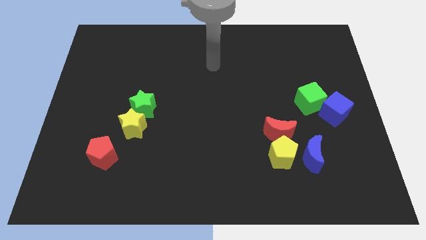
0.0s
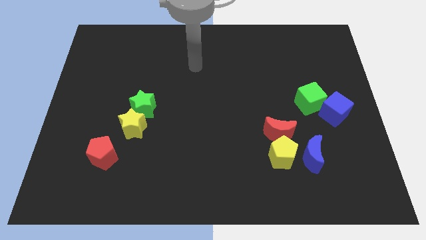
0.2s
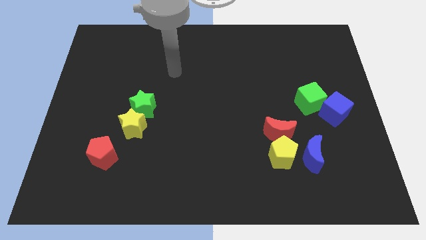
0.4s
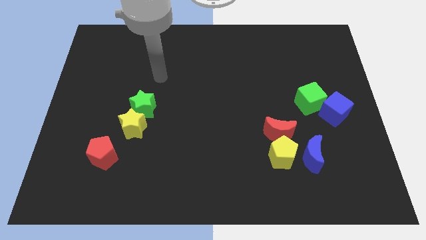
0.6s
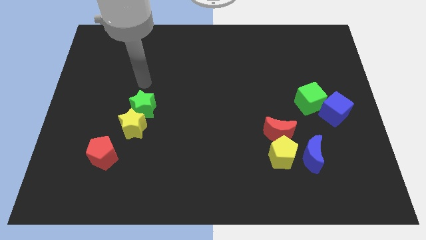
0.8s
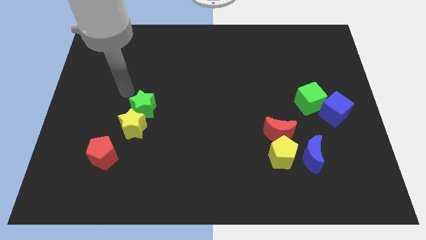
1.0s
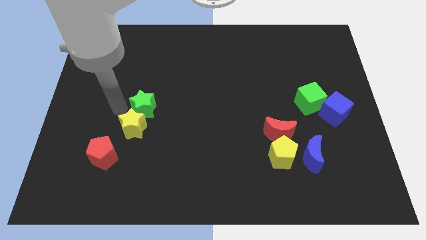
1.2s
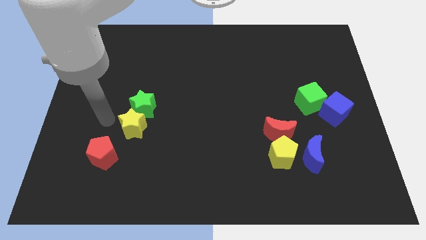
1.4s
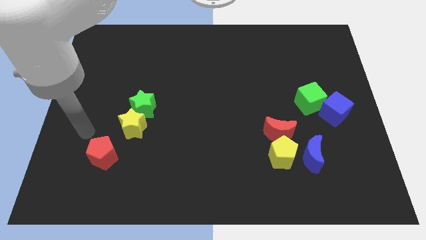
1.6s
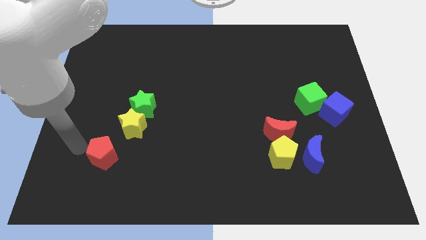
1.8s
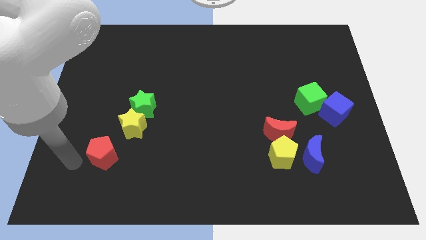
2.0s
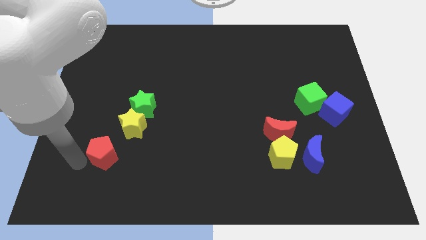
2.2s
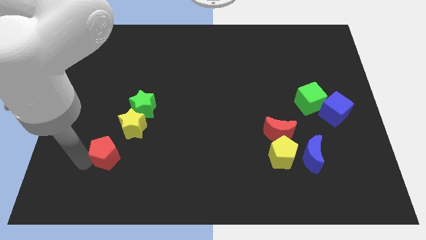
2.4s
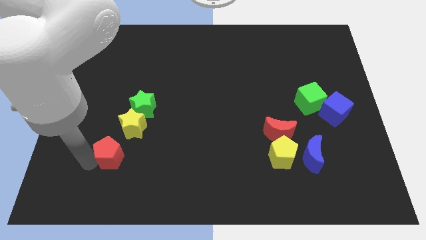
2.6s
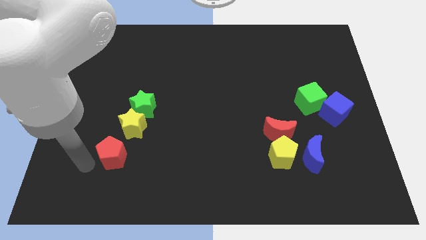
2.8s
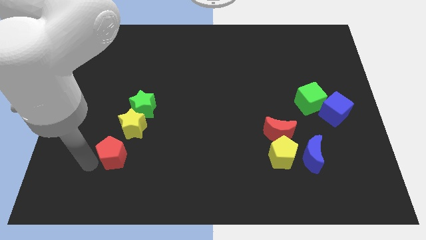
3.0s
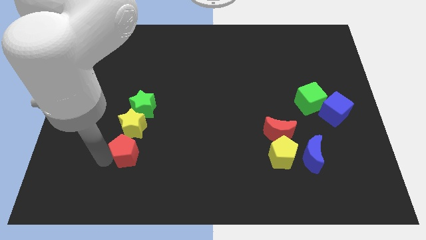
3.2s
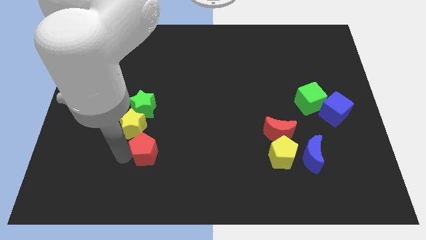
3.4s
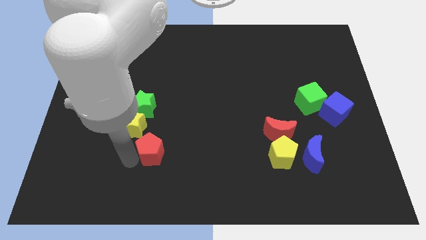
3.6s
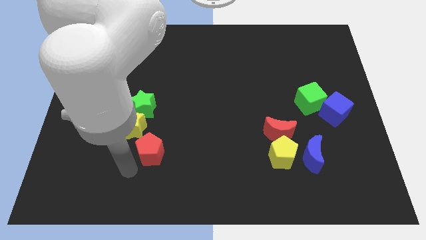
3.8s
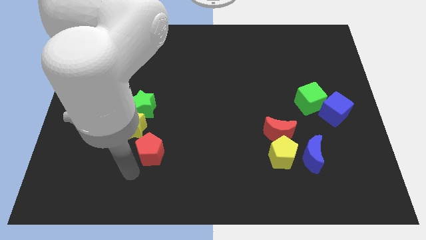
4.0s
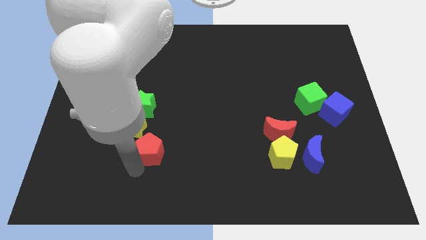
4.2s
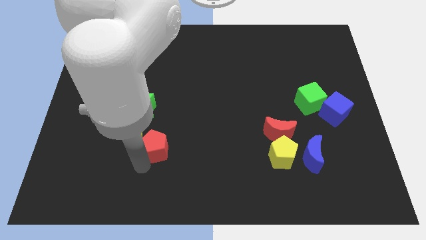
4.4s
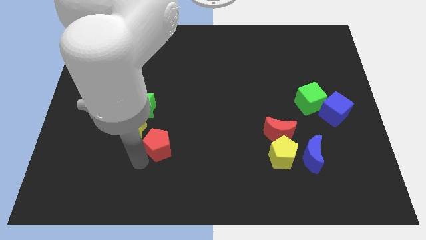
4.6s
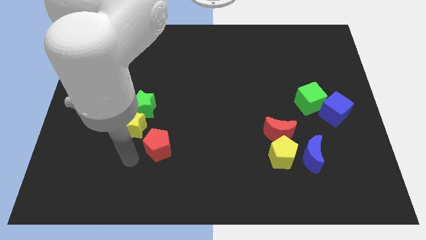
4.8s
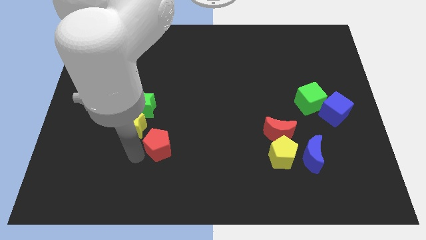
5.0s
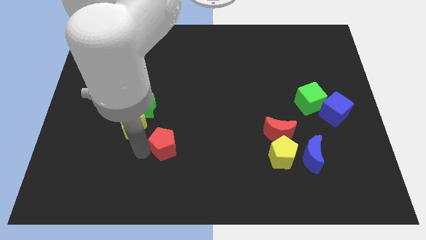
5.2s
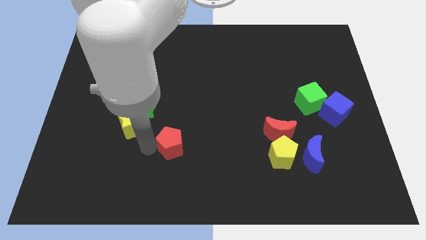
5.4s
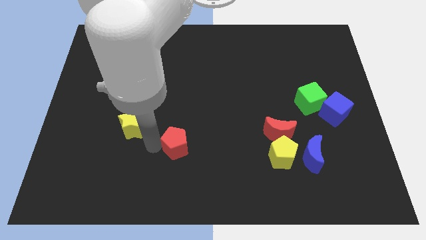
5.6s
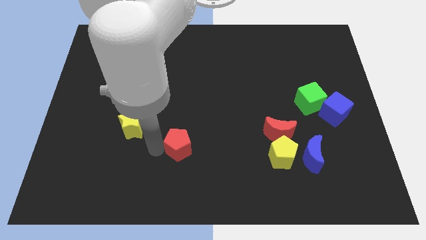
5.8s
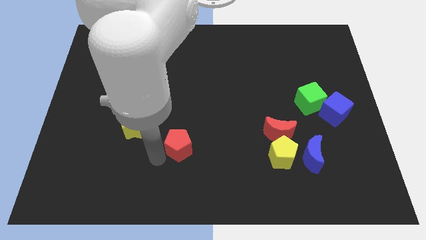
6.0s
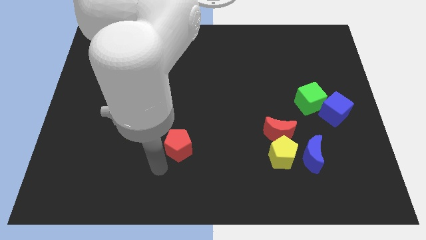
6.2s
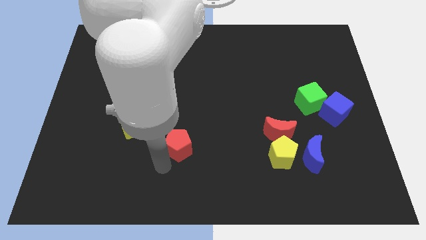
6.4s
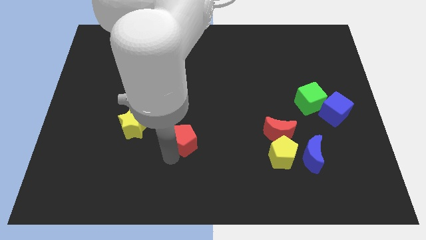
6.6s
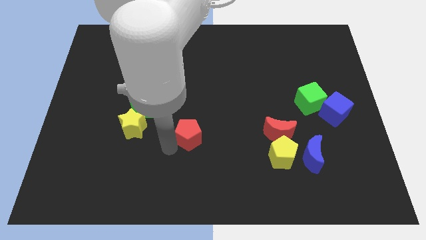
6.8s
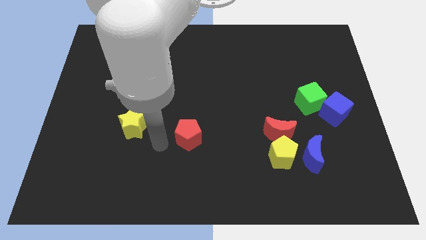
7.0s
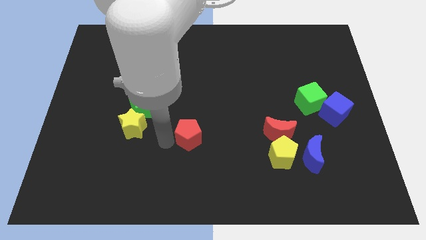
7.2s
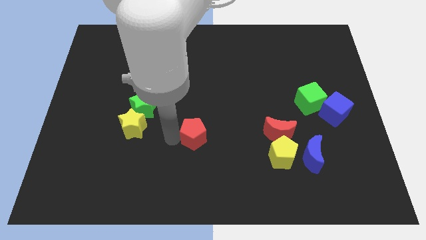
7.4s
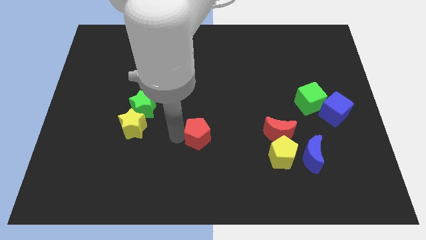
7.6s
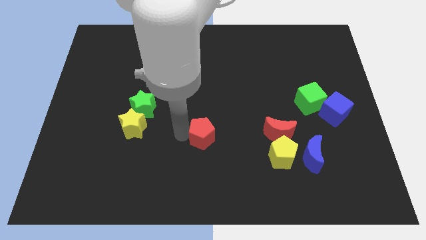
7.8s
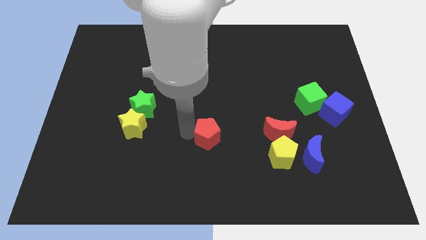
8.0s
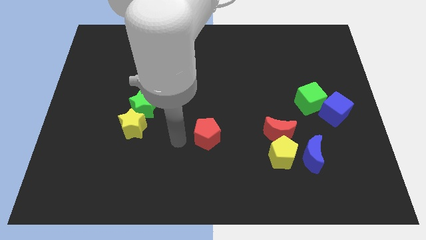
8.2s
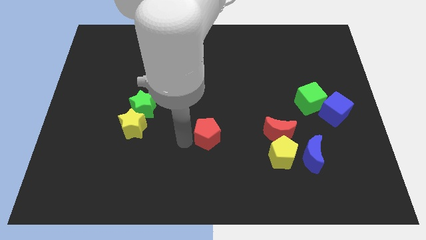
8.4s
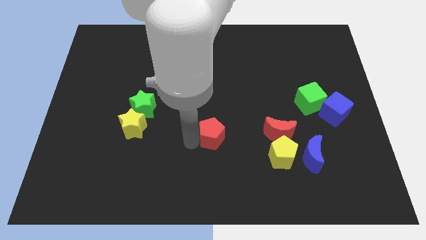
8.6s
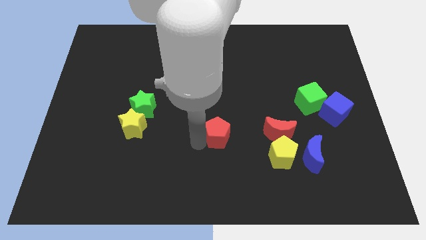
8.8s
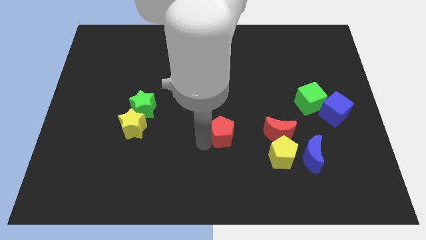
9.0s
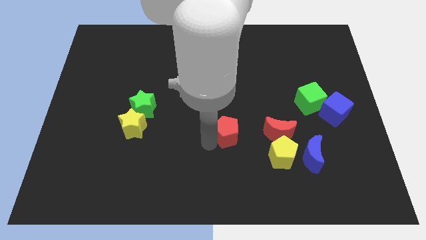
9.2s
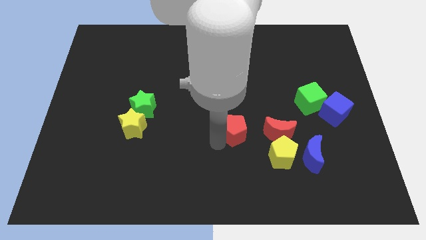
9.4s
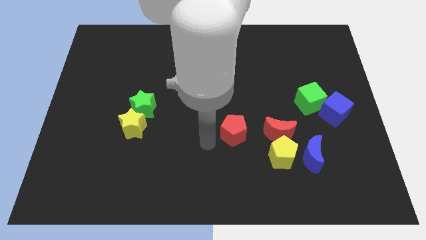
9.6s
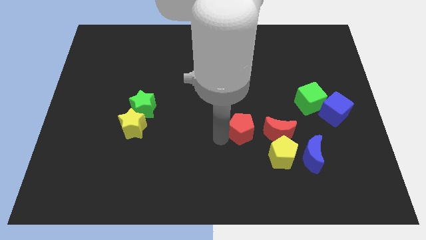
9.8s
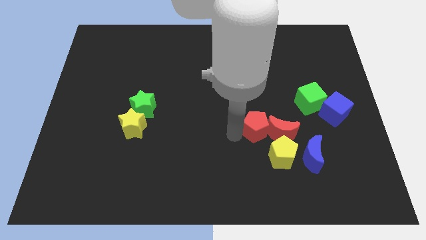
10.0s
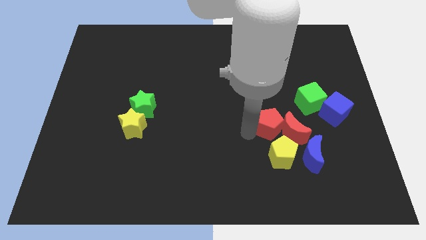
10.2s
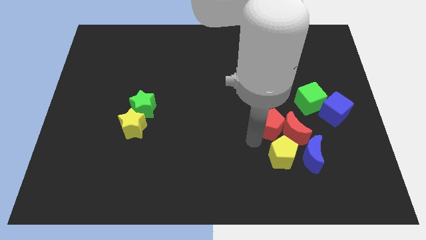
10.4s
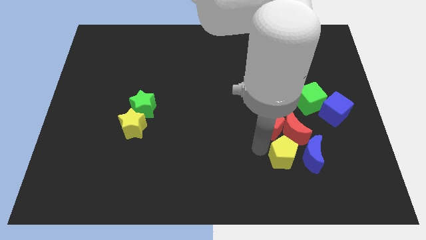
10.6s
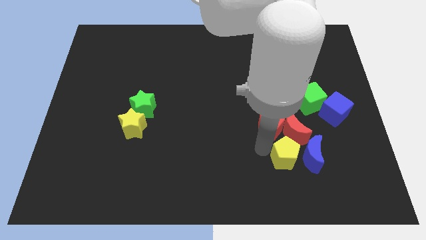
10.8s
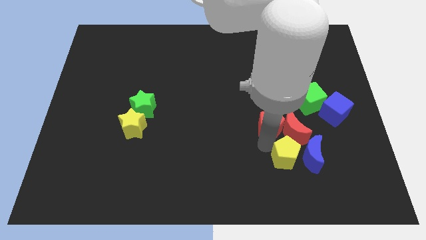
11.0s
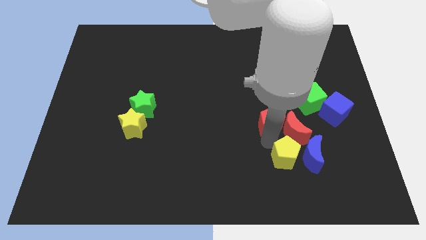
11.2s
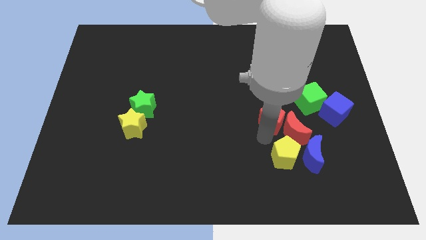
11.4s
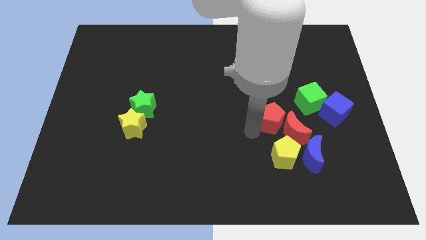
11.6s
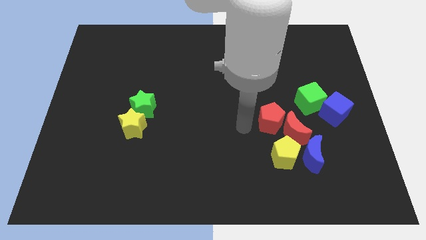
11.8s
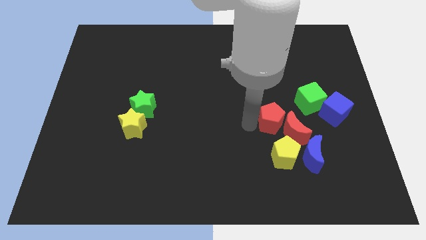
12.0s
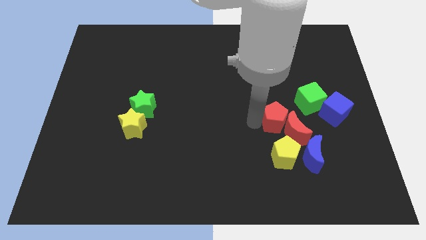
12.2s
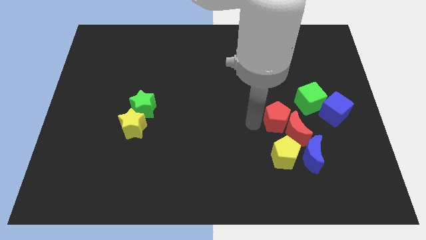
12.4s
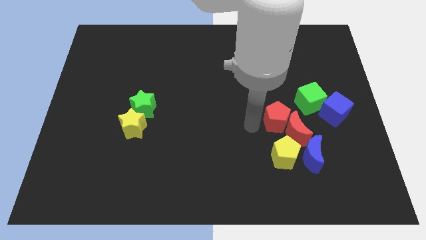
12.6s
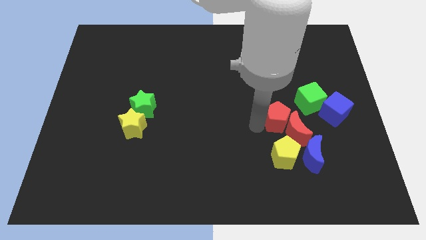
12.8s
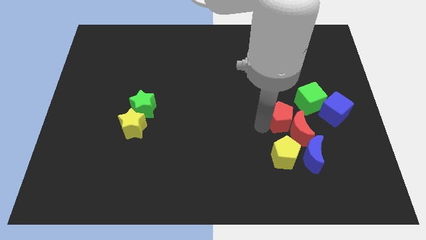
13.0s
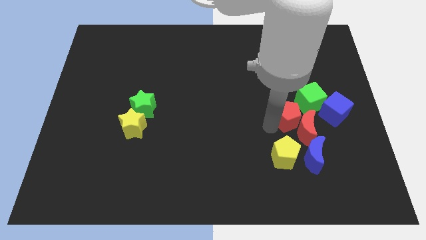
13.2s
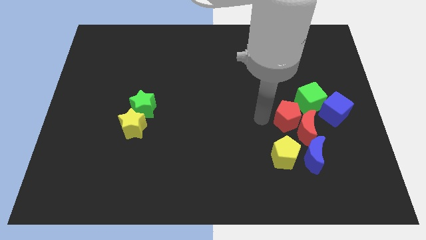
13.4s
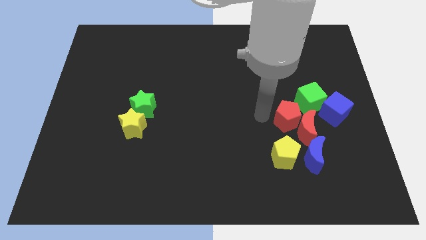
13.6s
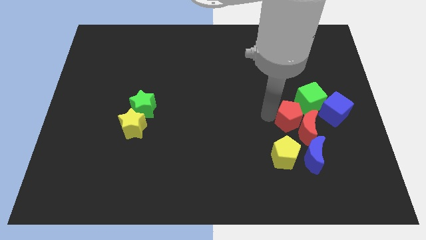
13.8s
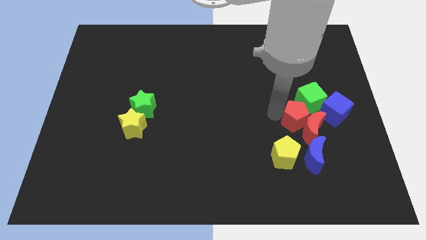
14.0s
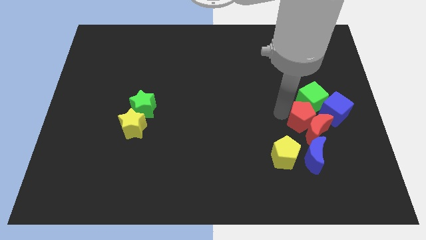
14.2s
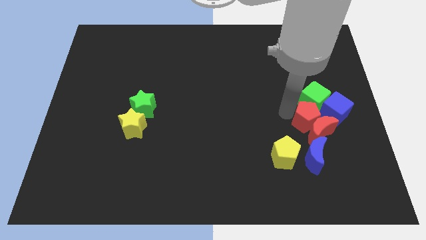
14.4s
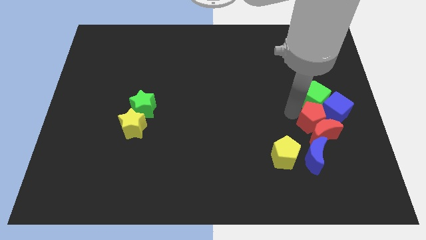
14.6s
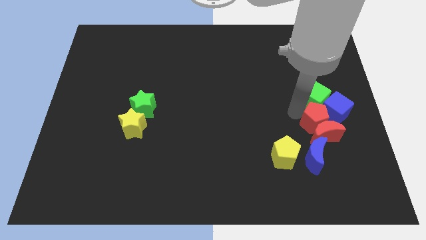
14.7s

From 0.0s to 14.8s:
move the red pentagon to the bottom right side of the green cube
